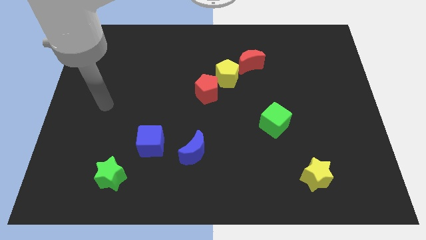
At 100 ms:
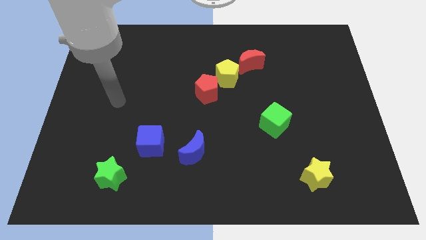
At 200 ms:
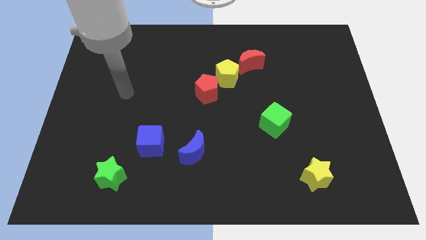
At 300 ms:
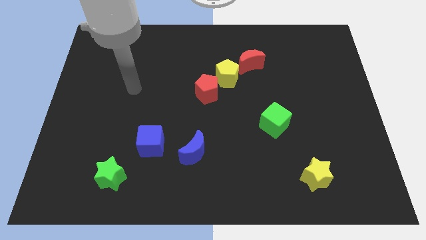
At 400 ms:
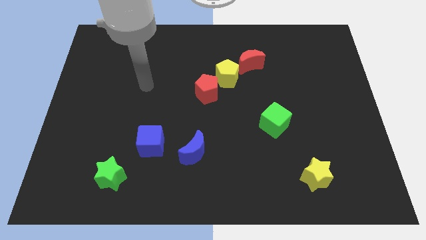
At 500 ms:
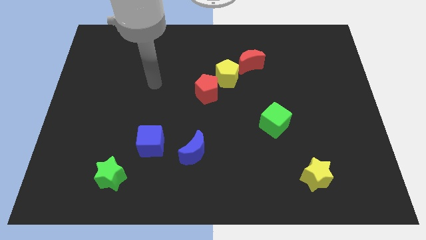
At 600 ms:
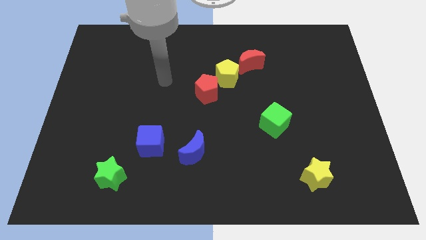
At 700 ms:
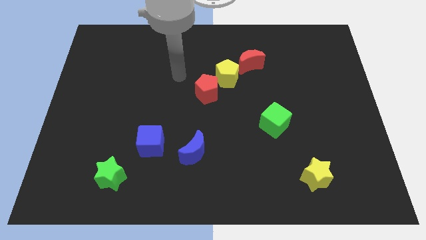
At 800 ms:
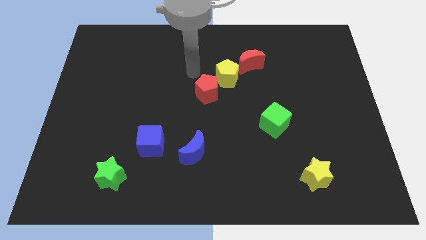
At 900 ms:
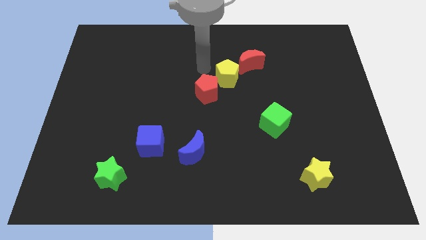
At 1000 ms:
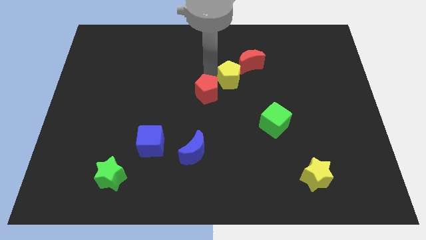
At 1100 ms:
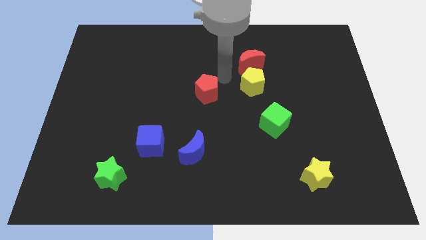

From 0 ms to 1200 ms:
move the red pentagon away from the yellow pentagon

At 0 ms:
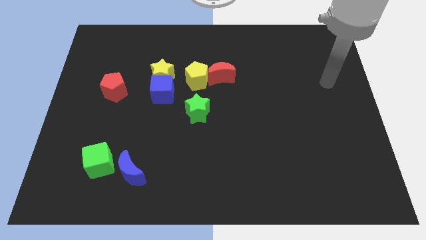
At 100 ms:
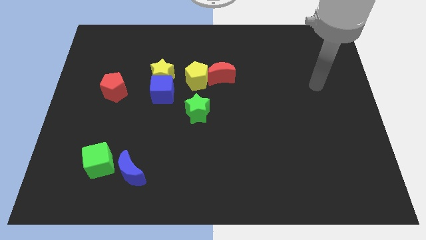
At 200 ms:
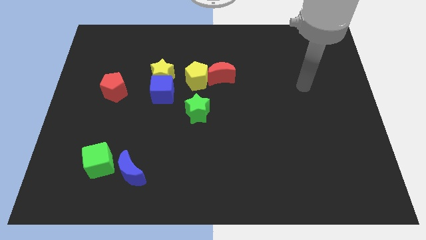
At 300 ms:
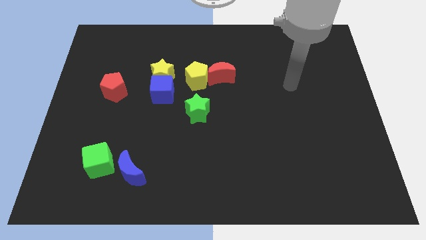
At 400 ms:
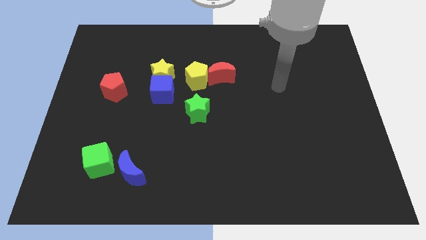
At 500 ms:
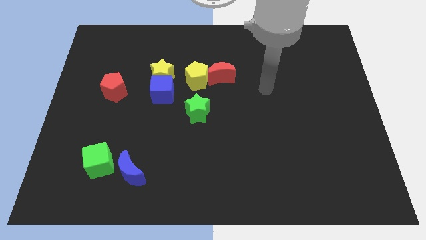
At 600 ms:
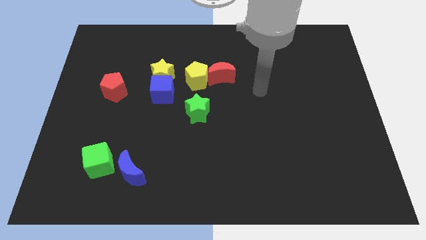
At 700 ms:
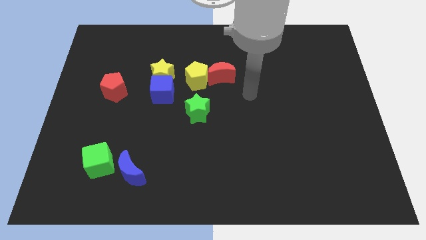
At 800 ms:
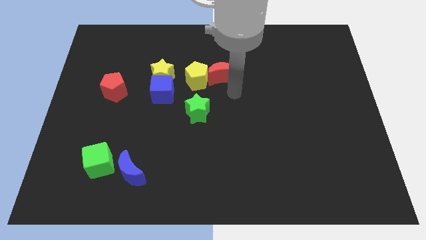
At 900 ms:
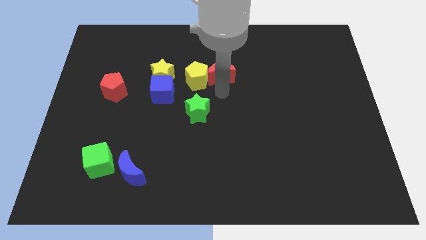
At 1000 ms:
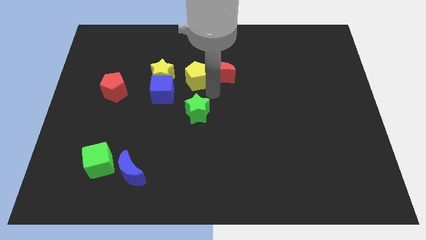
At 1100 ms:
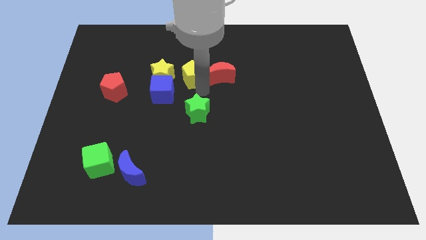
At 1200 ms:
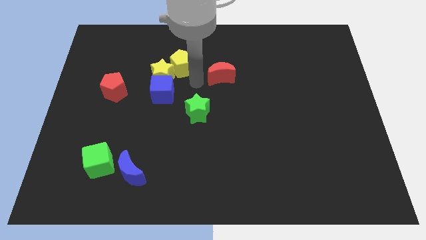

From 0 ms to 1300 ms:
pull the red moon apart from the yellow pentagon

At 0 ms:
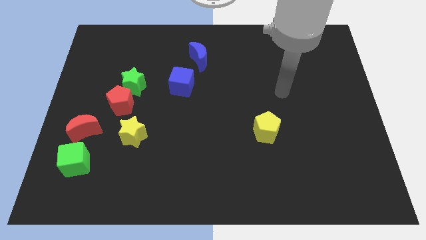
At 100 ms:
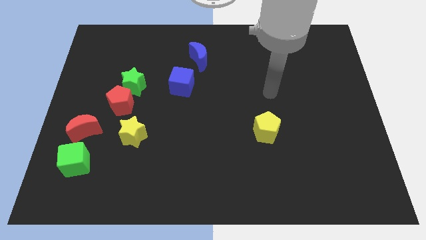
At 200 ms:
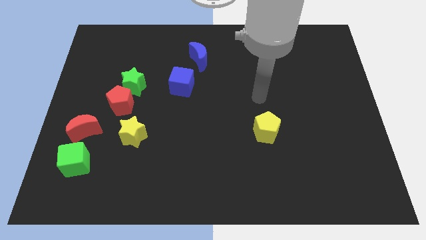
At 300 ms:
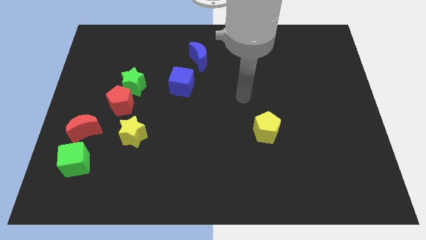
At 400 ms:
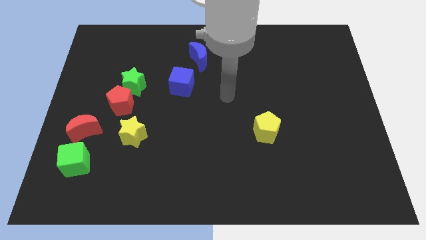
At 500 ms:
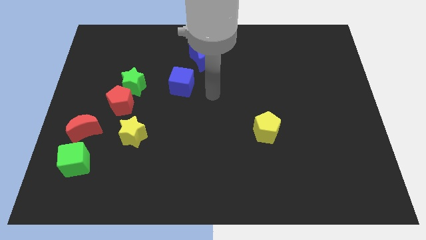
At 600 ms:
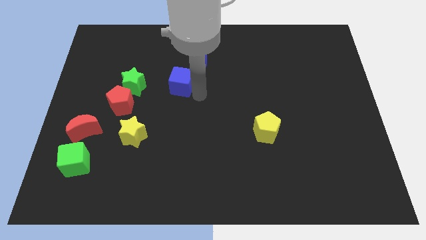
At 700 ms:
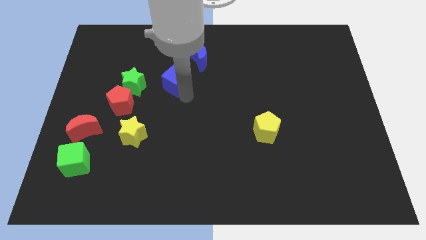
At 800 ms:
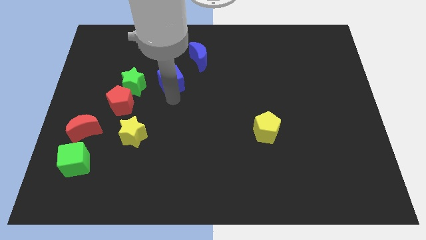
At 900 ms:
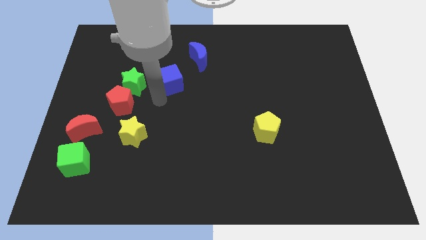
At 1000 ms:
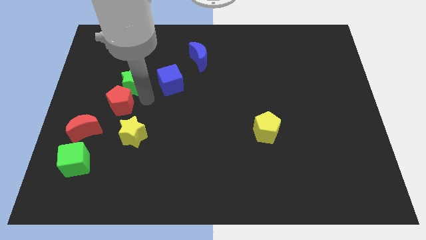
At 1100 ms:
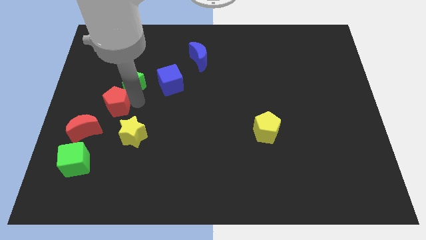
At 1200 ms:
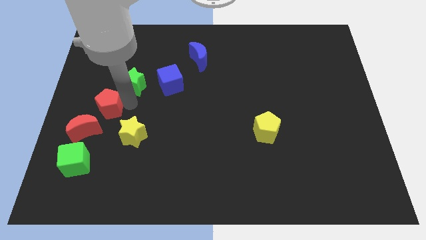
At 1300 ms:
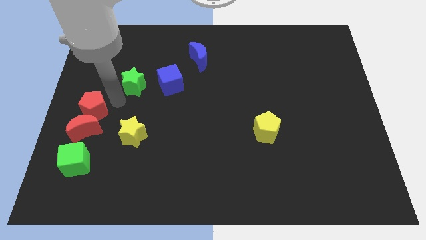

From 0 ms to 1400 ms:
pull the green star apart from the red pentagon

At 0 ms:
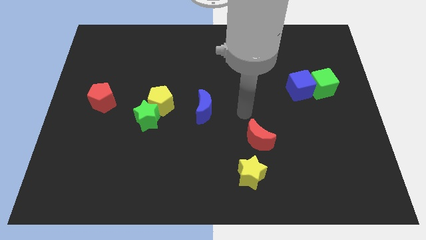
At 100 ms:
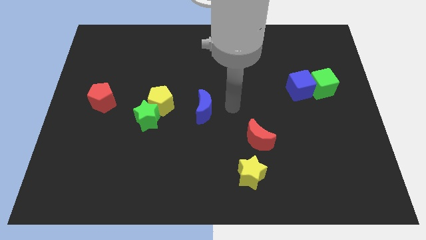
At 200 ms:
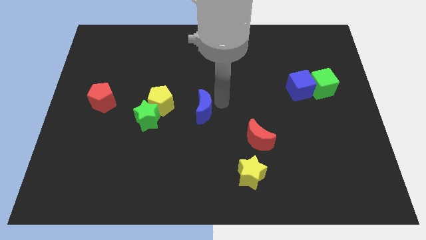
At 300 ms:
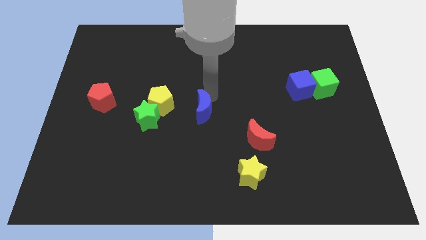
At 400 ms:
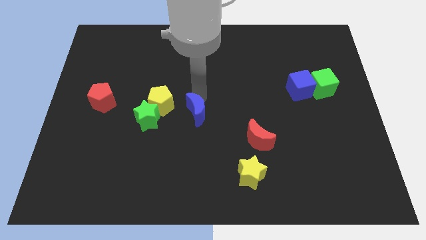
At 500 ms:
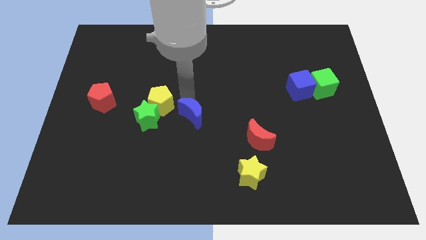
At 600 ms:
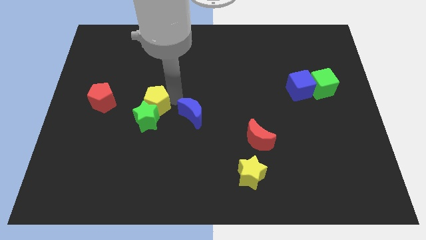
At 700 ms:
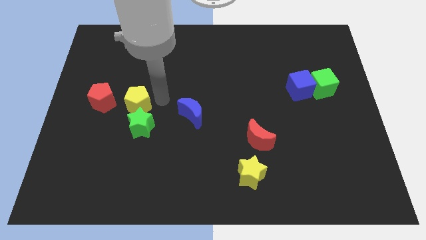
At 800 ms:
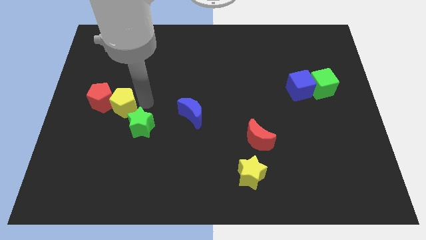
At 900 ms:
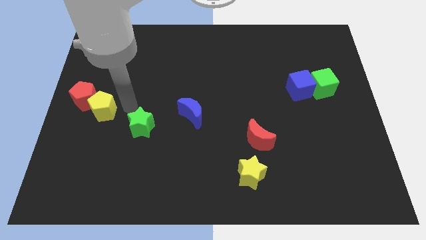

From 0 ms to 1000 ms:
separate the green star from the yellow pentagon

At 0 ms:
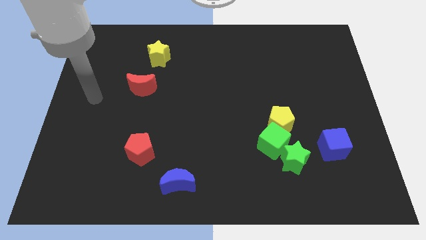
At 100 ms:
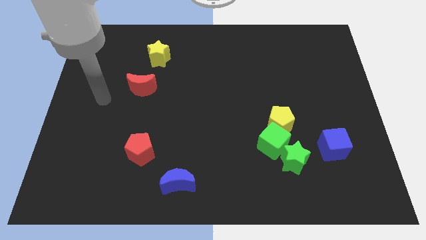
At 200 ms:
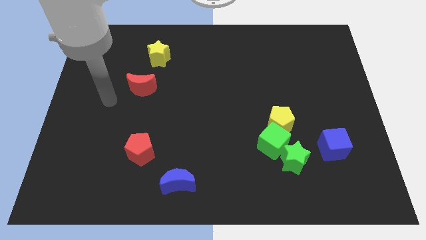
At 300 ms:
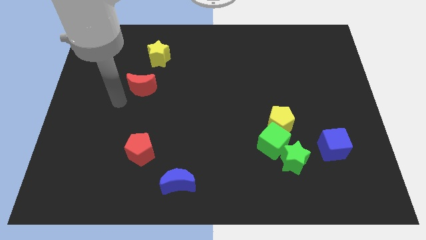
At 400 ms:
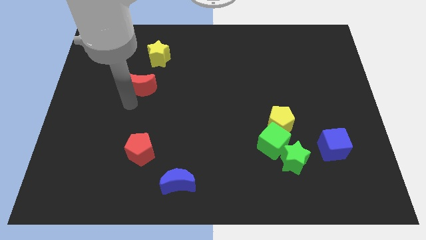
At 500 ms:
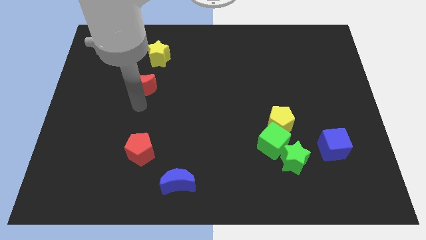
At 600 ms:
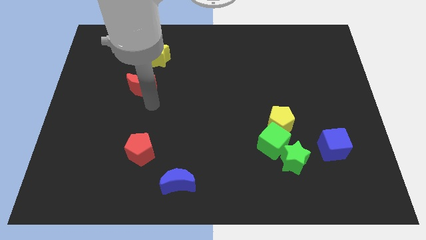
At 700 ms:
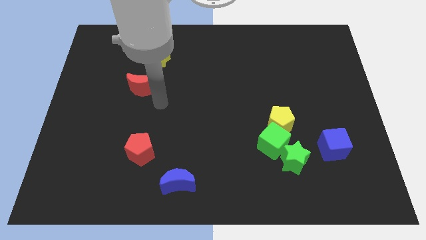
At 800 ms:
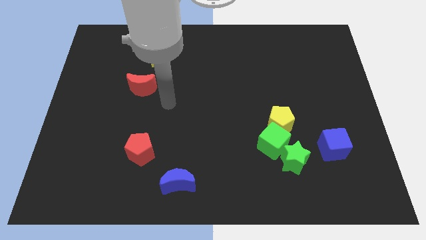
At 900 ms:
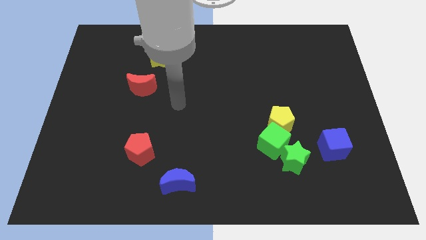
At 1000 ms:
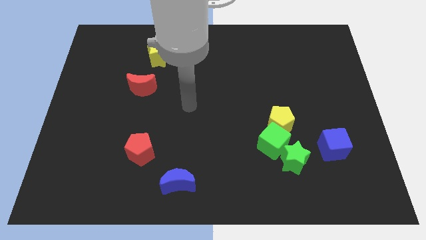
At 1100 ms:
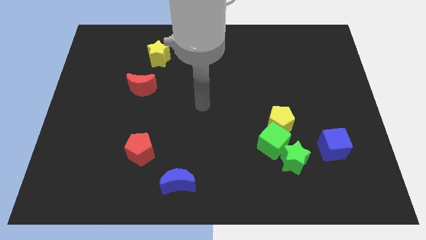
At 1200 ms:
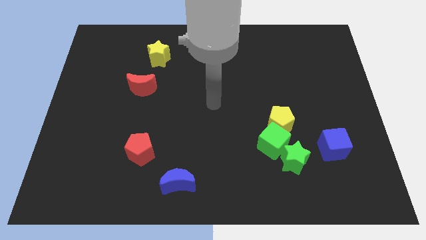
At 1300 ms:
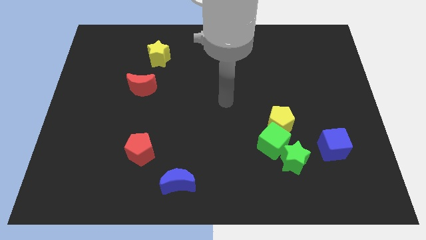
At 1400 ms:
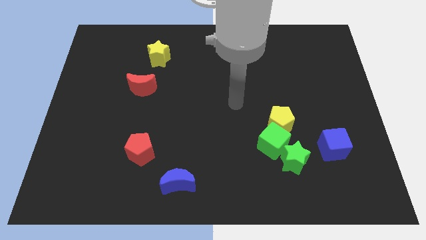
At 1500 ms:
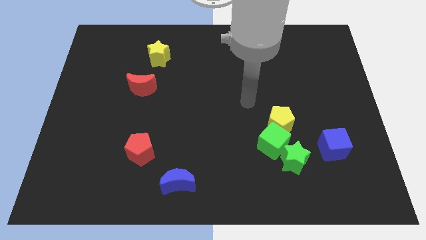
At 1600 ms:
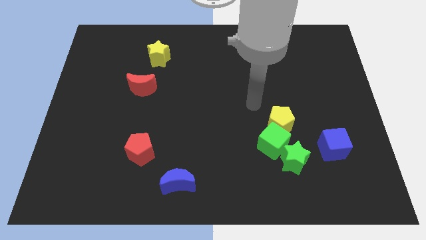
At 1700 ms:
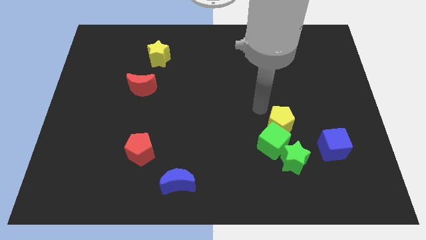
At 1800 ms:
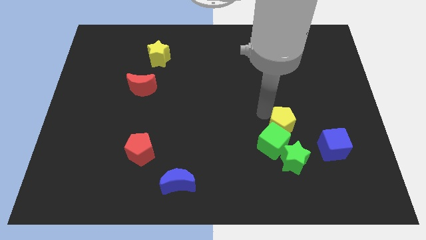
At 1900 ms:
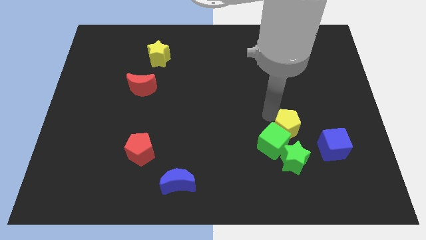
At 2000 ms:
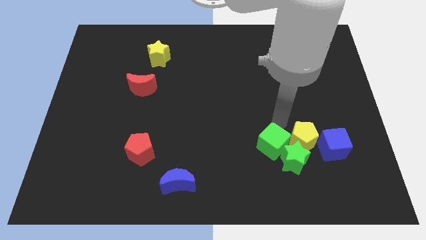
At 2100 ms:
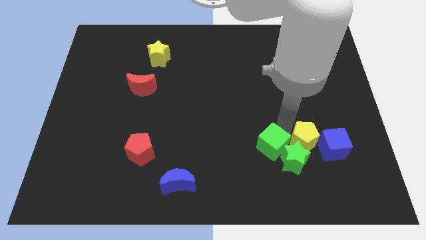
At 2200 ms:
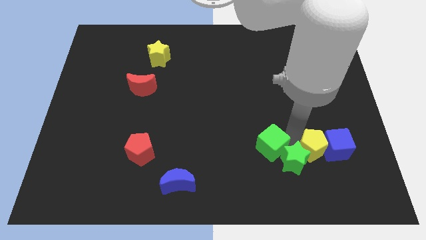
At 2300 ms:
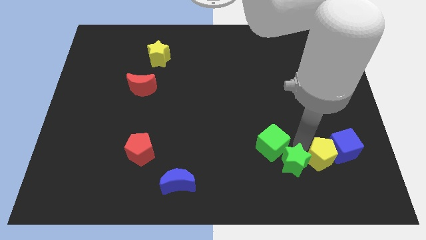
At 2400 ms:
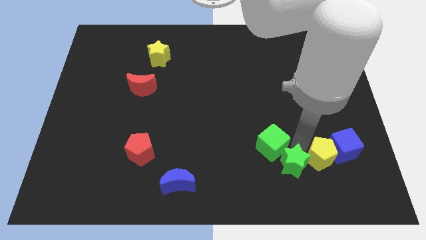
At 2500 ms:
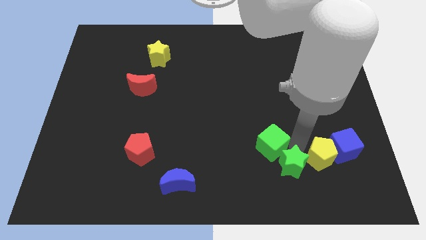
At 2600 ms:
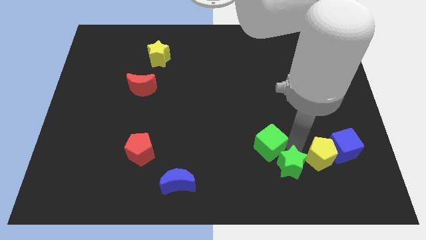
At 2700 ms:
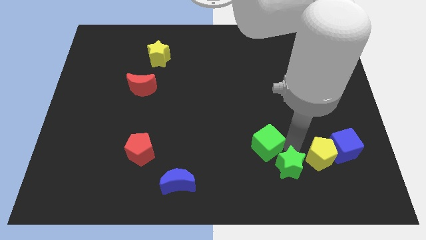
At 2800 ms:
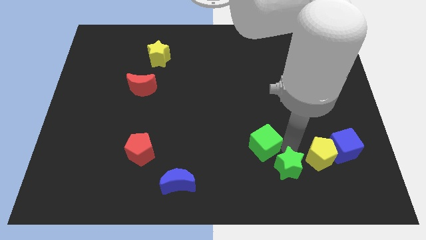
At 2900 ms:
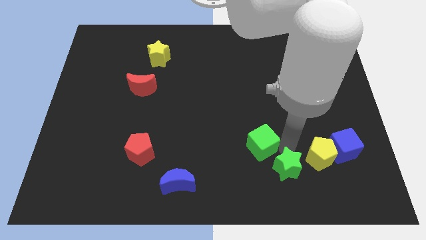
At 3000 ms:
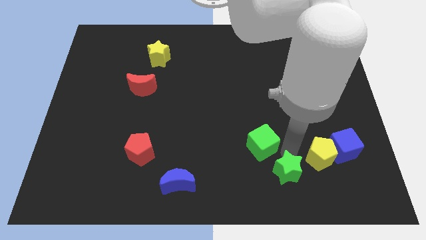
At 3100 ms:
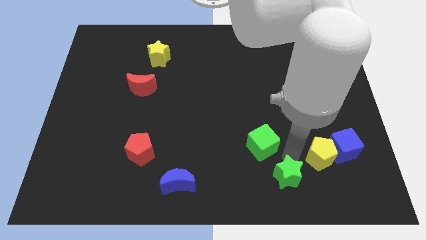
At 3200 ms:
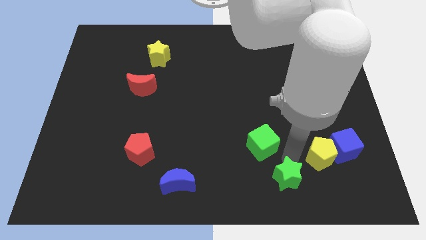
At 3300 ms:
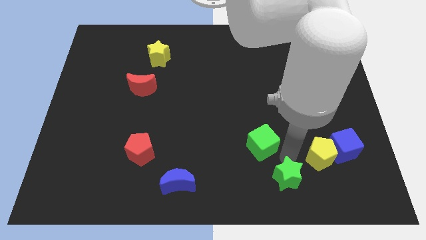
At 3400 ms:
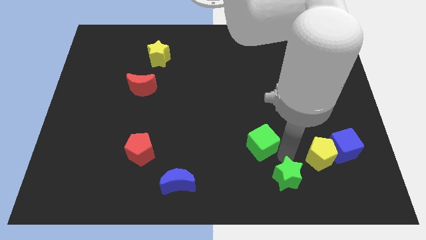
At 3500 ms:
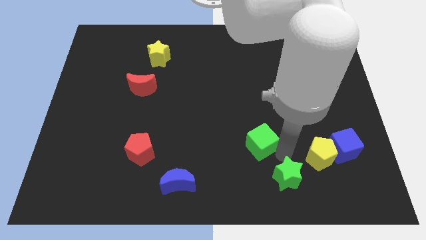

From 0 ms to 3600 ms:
pull the green cube apart from the green star and yellow pentagon

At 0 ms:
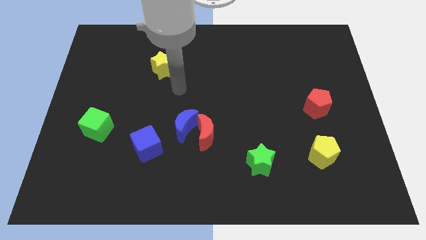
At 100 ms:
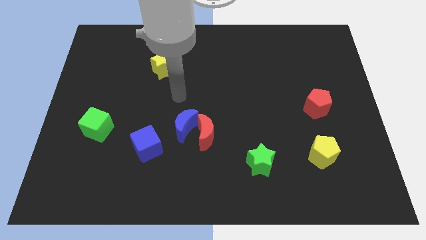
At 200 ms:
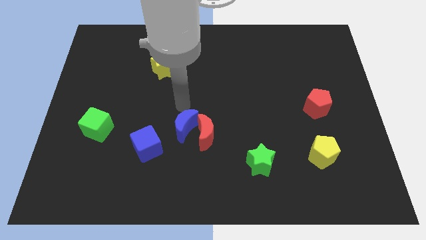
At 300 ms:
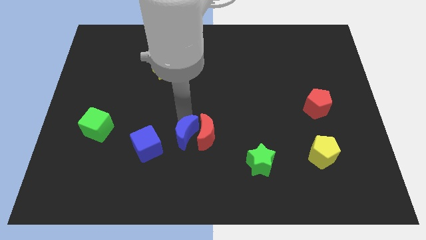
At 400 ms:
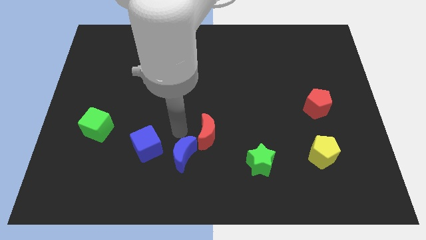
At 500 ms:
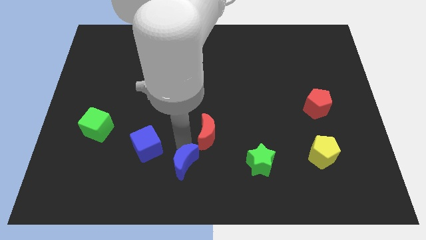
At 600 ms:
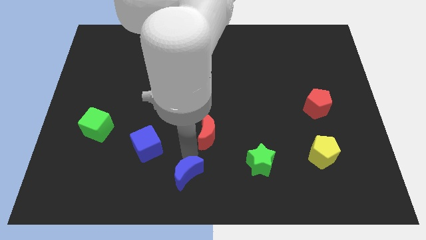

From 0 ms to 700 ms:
pull the red moon apart from the blue moon

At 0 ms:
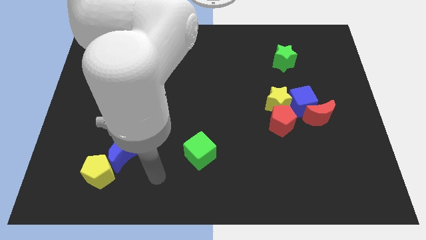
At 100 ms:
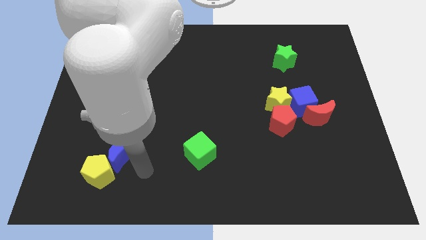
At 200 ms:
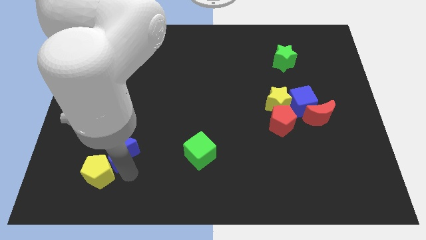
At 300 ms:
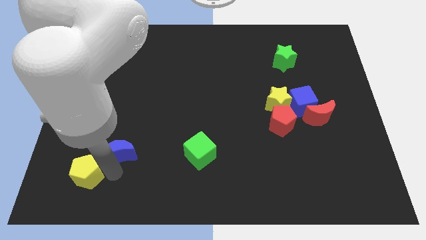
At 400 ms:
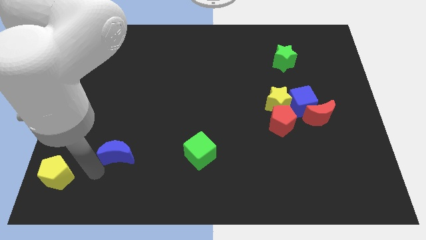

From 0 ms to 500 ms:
separate the blue moon from the yellow pentagon
